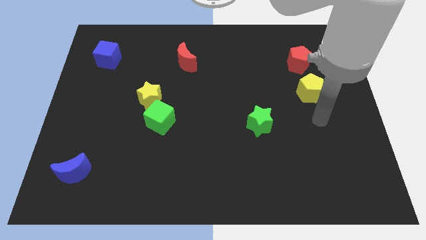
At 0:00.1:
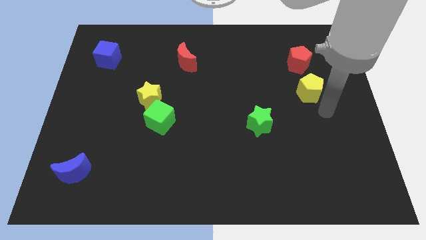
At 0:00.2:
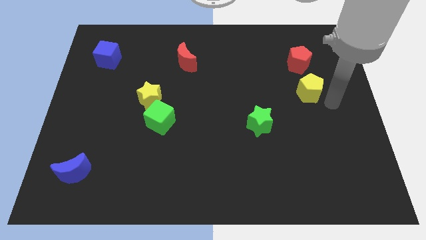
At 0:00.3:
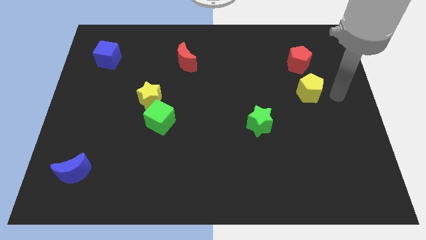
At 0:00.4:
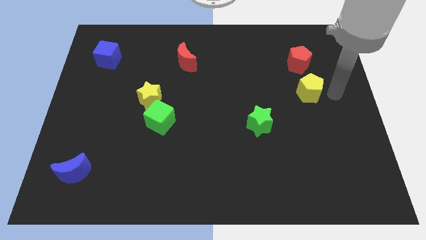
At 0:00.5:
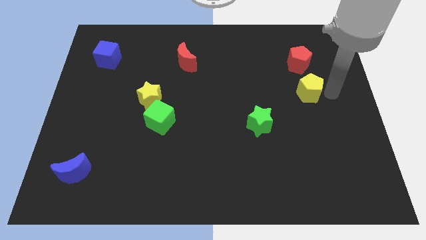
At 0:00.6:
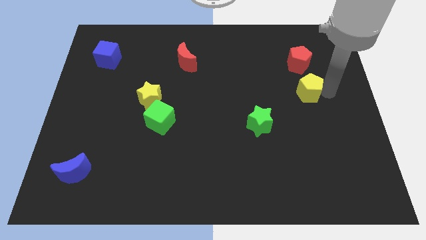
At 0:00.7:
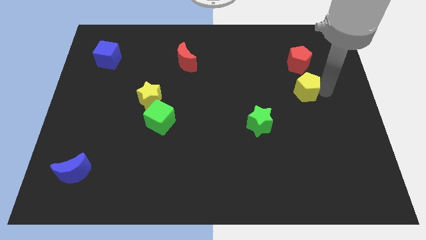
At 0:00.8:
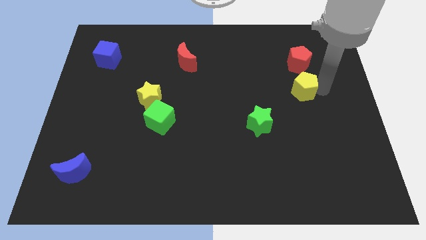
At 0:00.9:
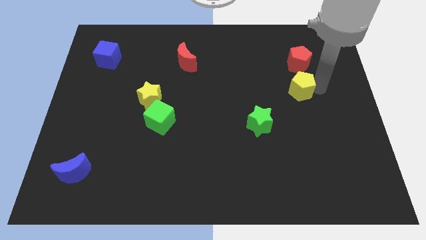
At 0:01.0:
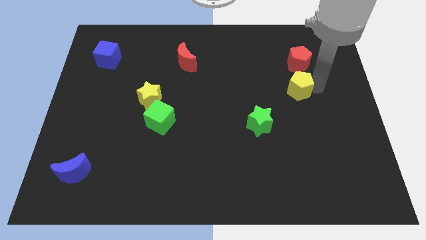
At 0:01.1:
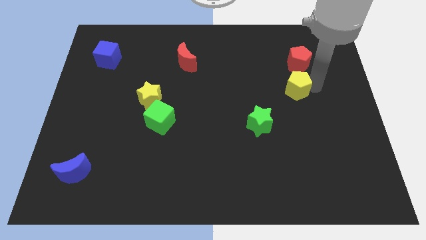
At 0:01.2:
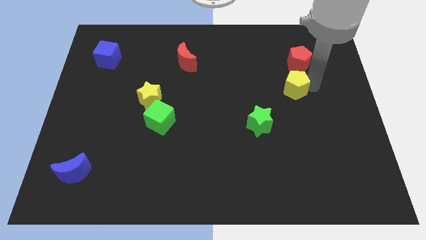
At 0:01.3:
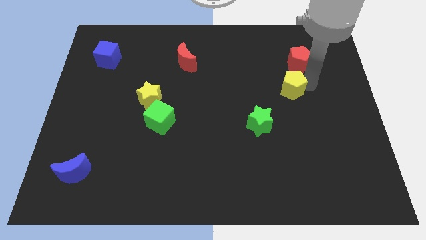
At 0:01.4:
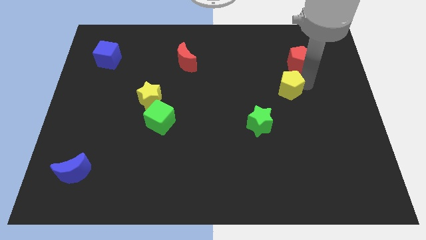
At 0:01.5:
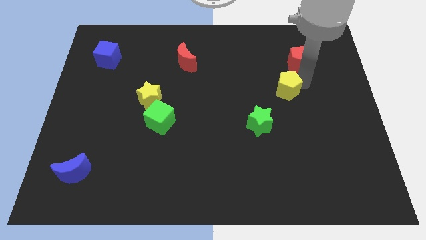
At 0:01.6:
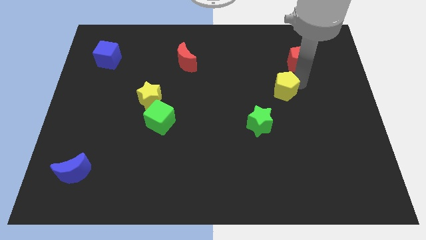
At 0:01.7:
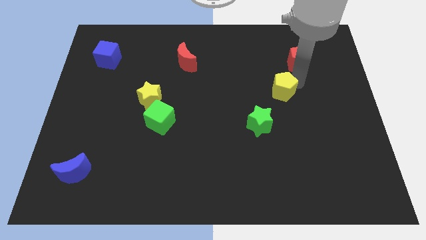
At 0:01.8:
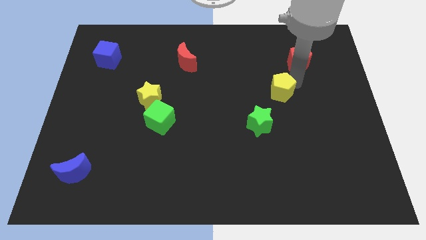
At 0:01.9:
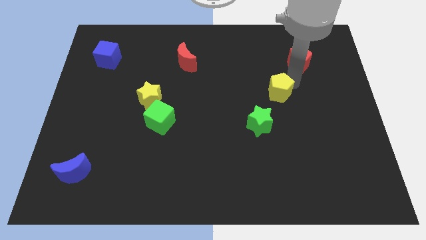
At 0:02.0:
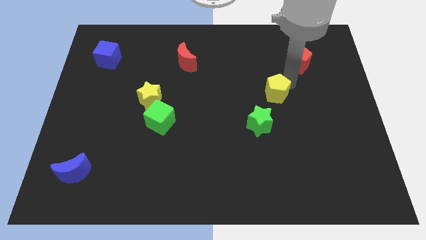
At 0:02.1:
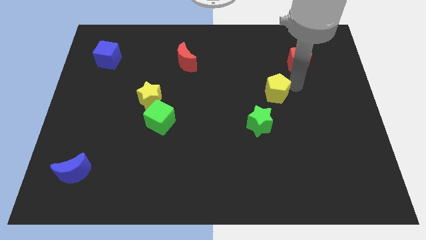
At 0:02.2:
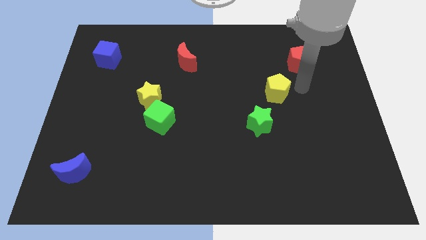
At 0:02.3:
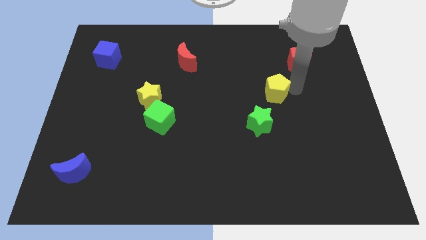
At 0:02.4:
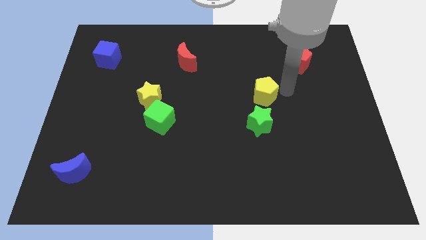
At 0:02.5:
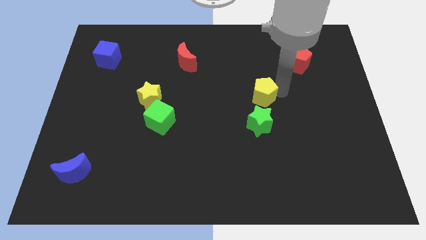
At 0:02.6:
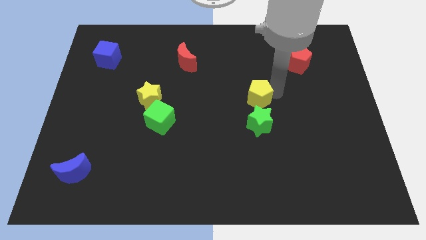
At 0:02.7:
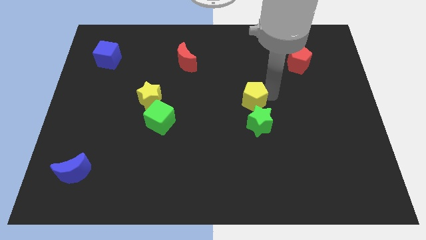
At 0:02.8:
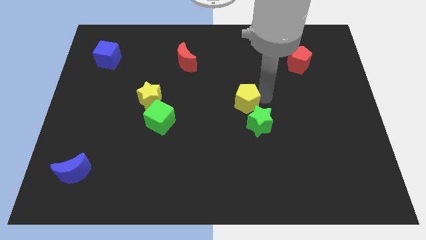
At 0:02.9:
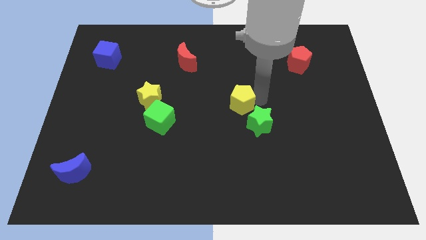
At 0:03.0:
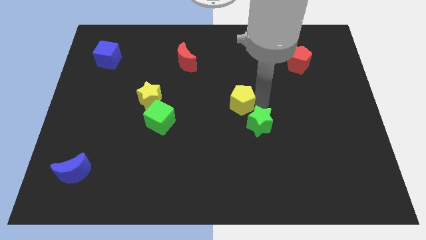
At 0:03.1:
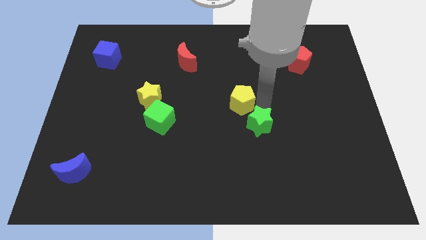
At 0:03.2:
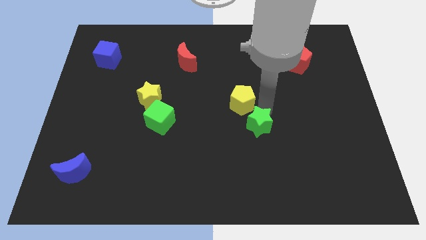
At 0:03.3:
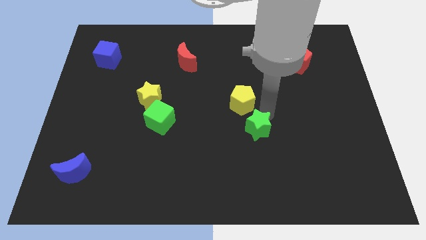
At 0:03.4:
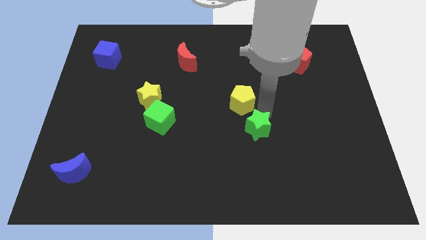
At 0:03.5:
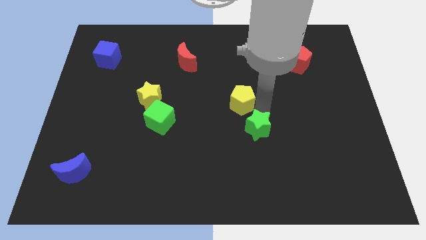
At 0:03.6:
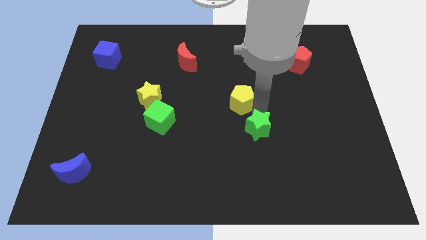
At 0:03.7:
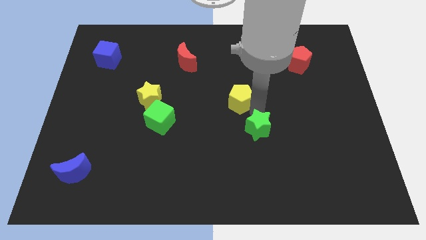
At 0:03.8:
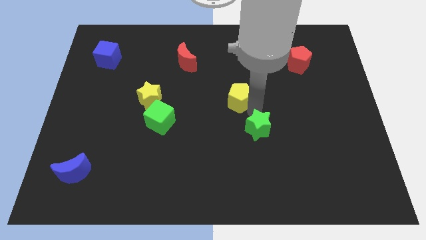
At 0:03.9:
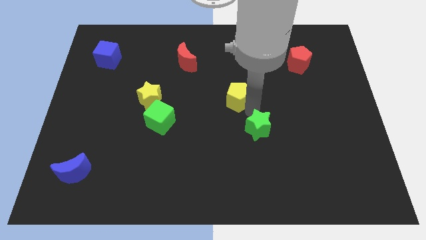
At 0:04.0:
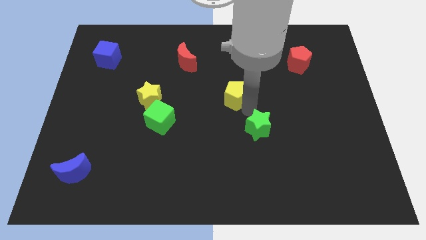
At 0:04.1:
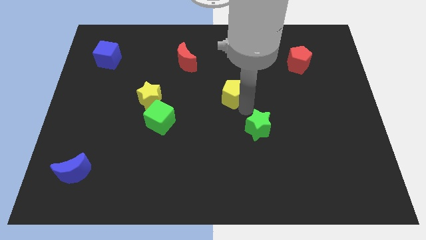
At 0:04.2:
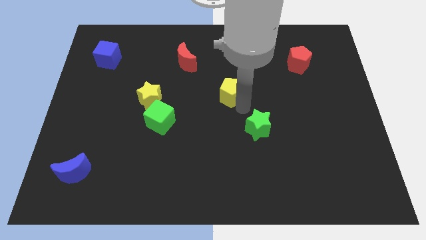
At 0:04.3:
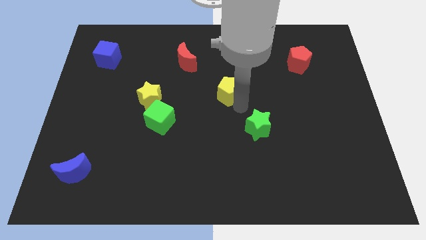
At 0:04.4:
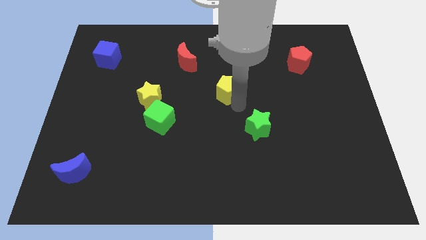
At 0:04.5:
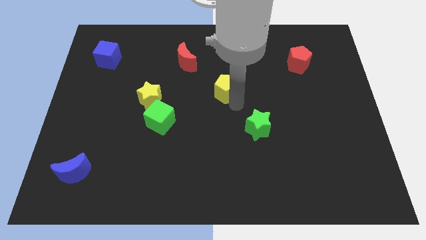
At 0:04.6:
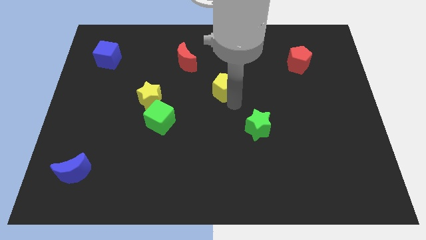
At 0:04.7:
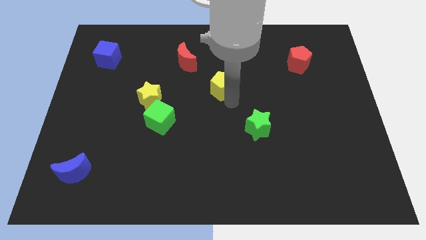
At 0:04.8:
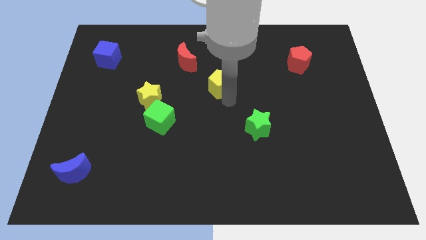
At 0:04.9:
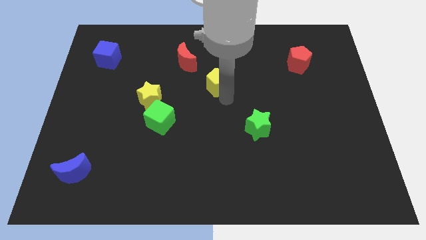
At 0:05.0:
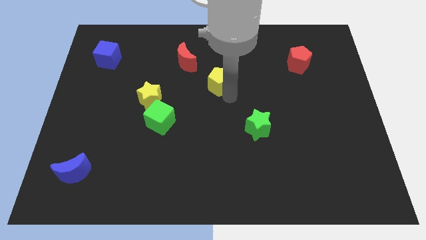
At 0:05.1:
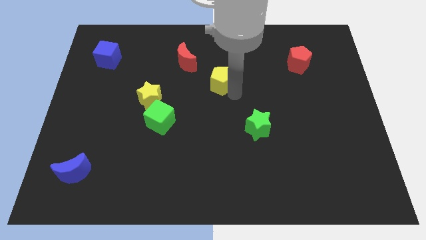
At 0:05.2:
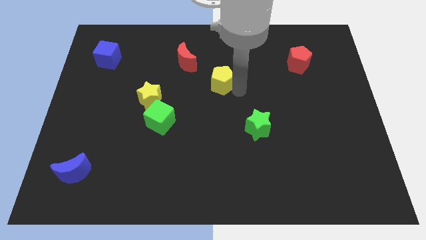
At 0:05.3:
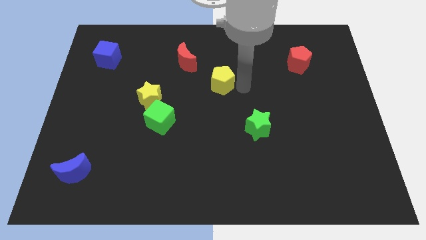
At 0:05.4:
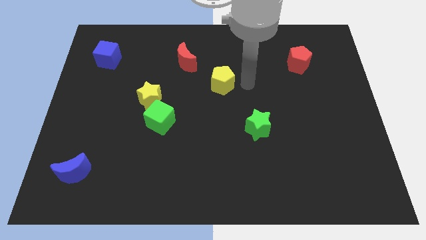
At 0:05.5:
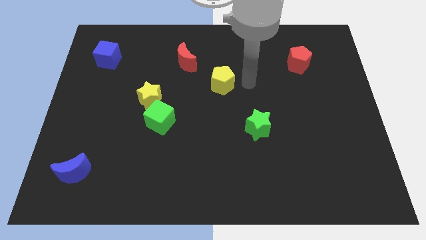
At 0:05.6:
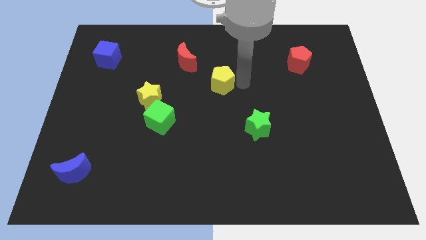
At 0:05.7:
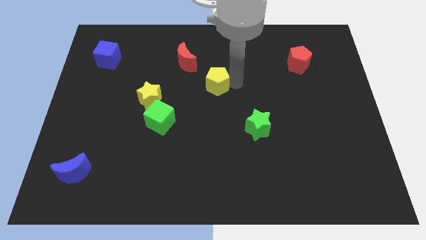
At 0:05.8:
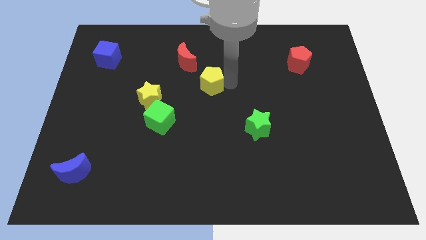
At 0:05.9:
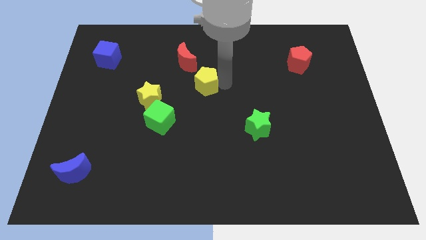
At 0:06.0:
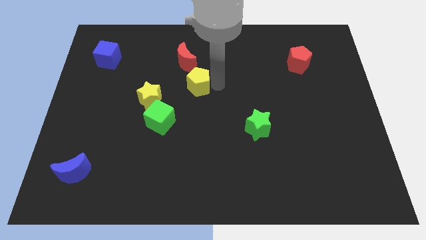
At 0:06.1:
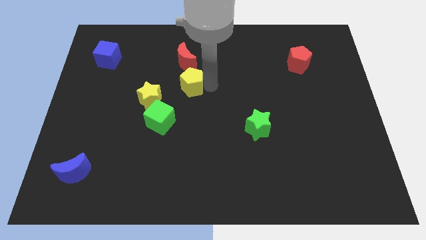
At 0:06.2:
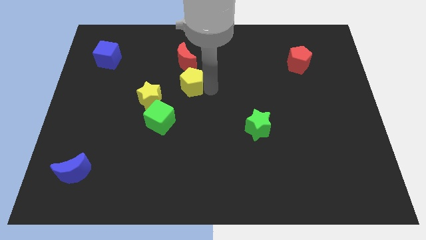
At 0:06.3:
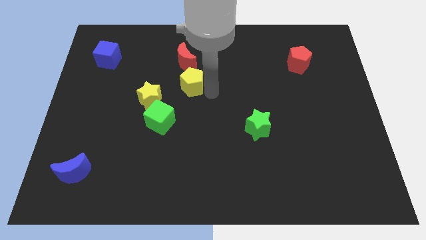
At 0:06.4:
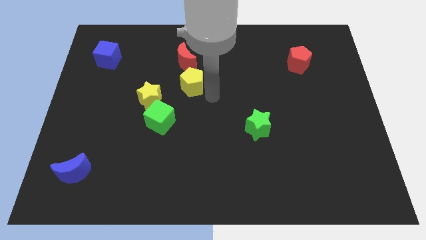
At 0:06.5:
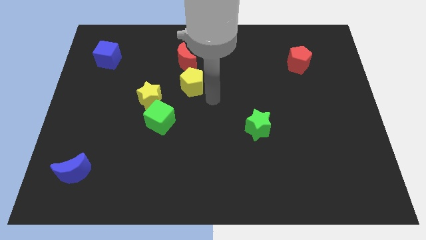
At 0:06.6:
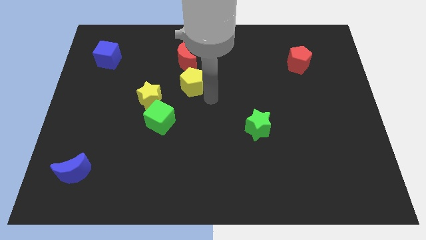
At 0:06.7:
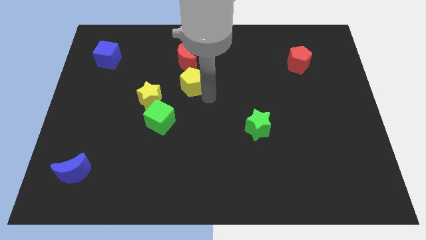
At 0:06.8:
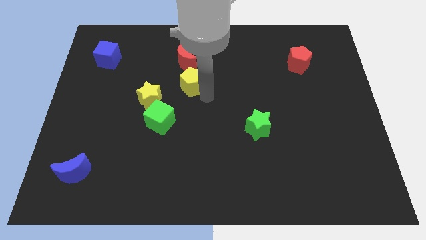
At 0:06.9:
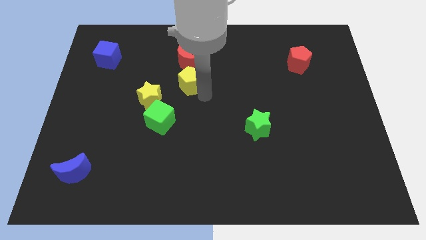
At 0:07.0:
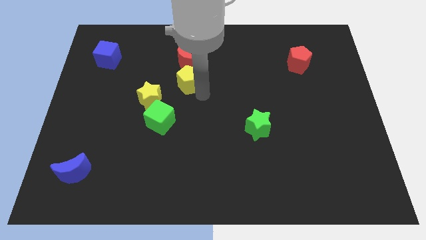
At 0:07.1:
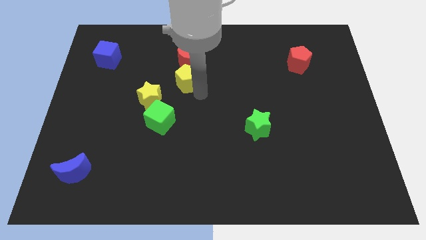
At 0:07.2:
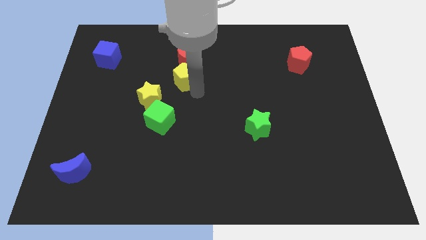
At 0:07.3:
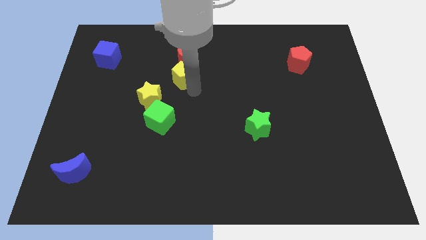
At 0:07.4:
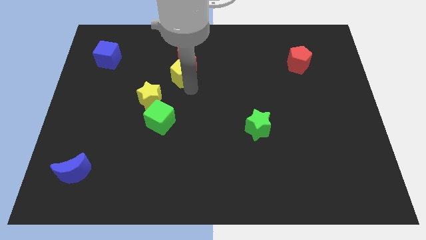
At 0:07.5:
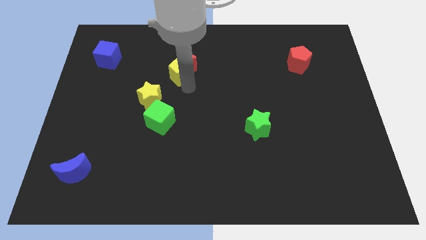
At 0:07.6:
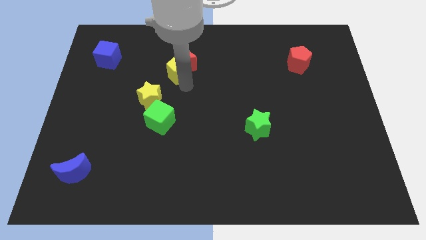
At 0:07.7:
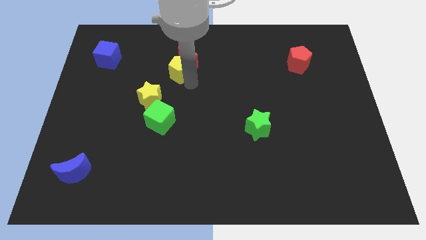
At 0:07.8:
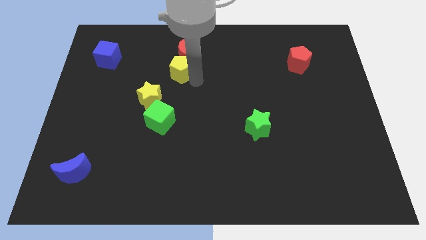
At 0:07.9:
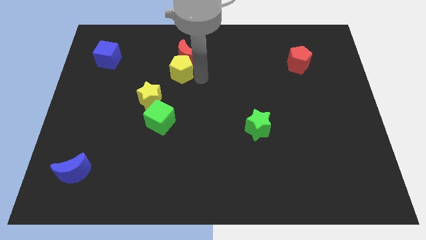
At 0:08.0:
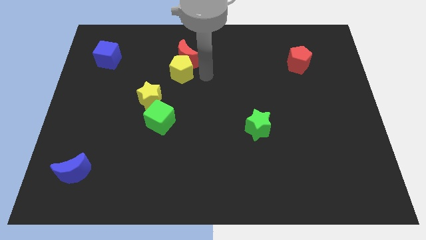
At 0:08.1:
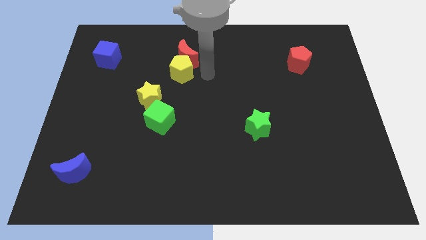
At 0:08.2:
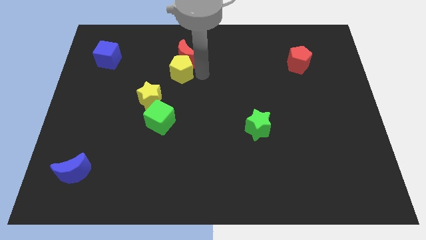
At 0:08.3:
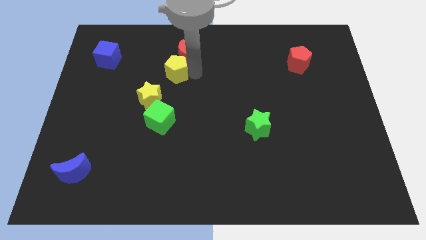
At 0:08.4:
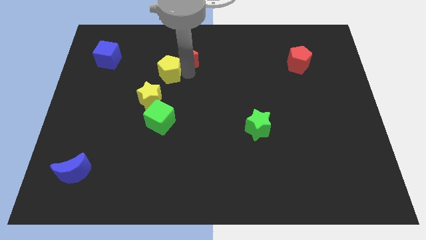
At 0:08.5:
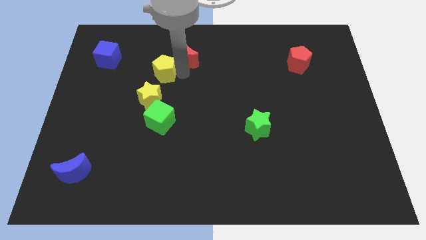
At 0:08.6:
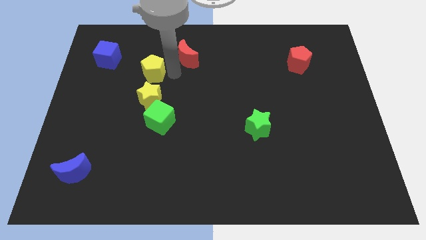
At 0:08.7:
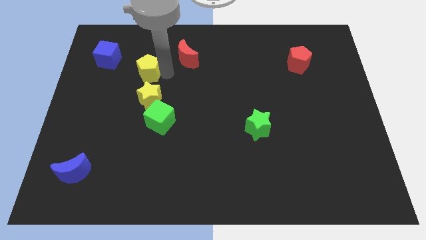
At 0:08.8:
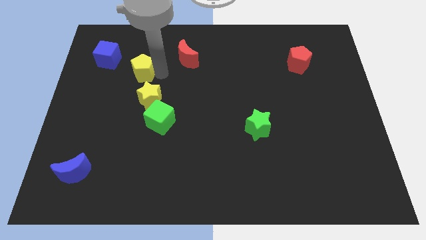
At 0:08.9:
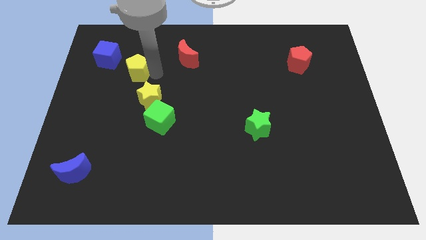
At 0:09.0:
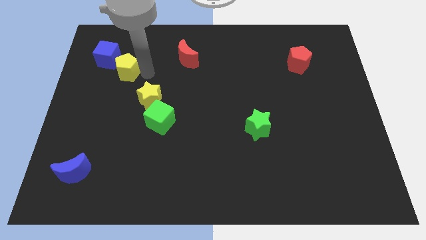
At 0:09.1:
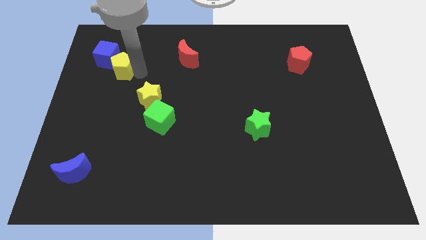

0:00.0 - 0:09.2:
put the yellow pentagon close to the blue cube
